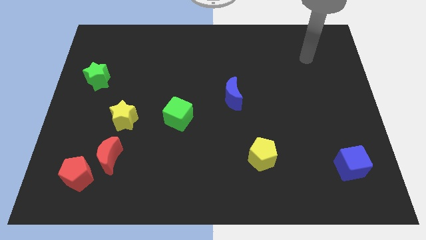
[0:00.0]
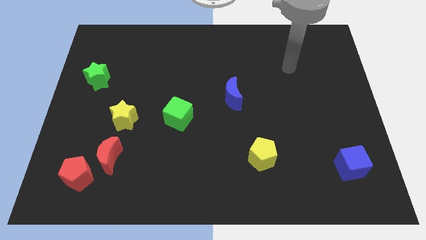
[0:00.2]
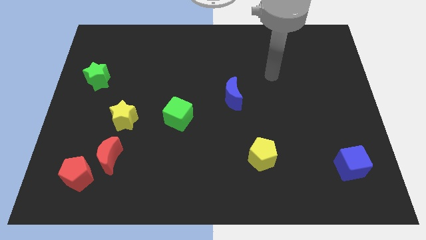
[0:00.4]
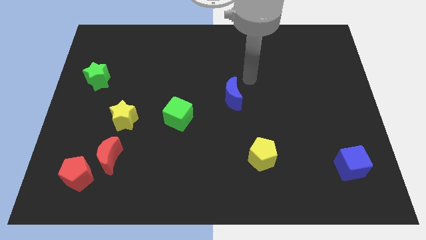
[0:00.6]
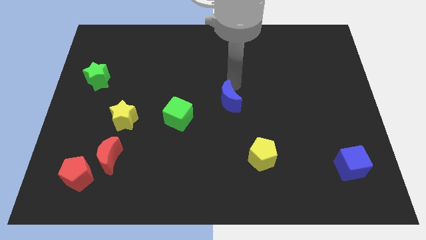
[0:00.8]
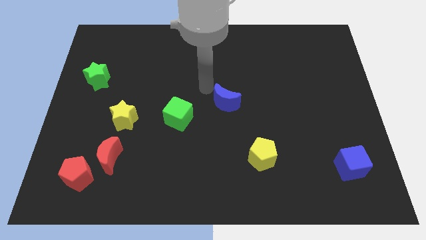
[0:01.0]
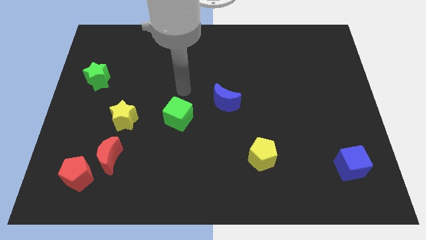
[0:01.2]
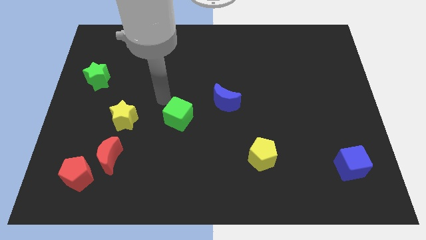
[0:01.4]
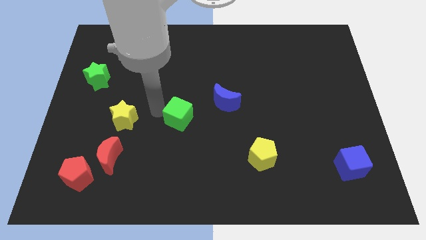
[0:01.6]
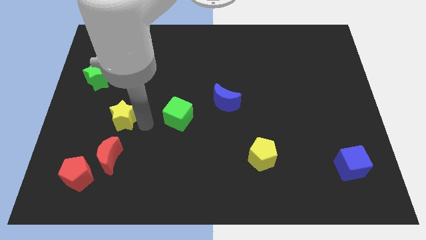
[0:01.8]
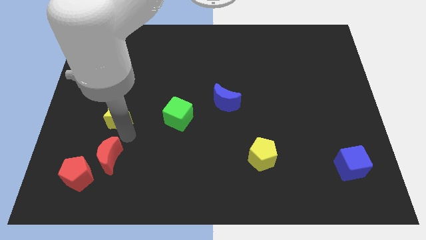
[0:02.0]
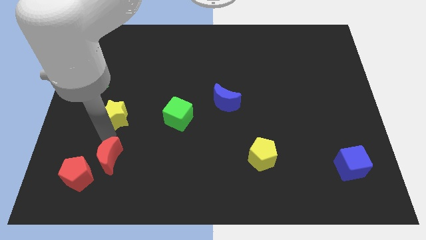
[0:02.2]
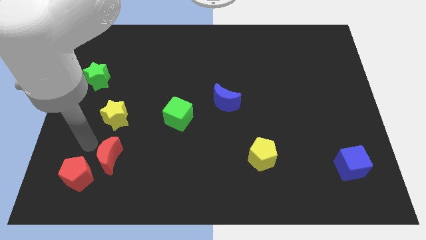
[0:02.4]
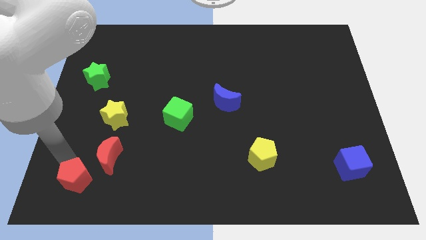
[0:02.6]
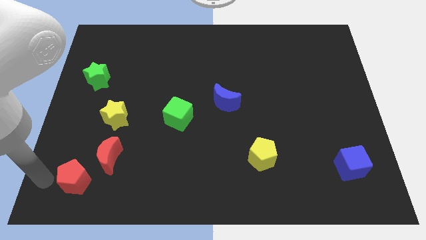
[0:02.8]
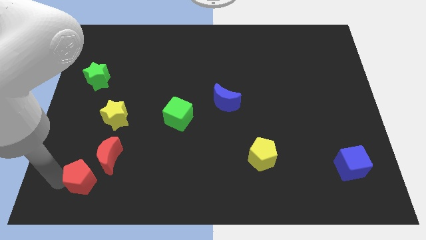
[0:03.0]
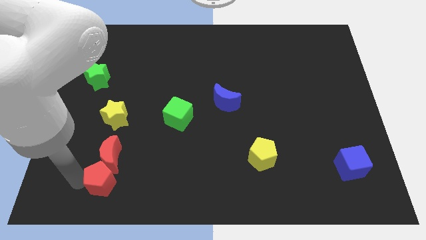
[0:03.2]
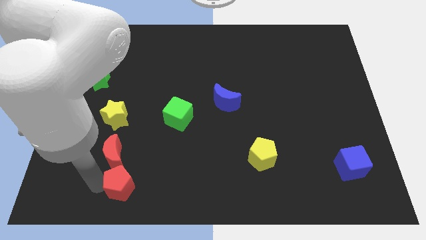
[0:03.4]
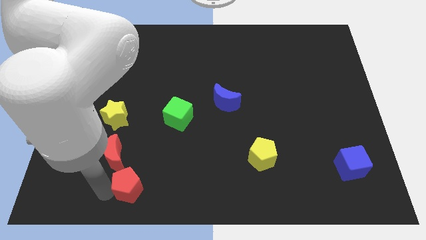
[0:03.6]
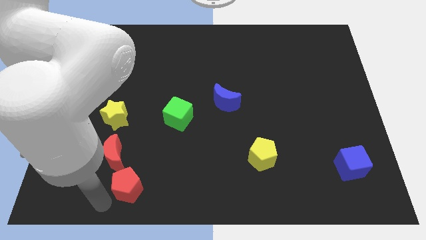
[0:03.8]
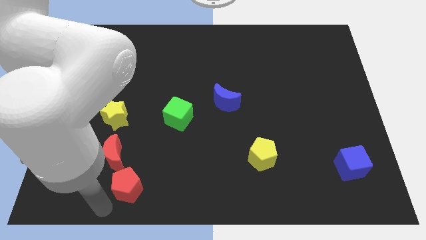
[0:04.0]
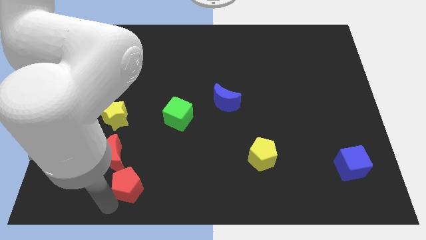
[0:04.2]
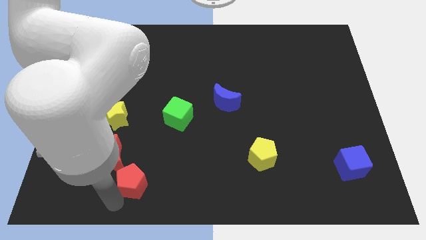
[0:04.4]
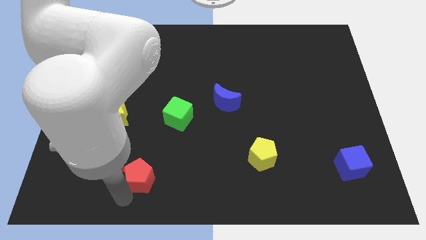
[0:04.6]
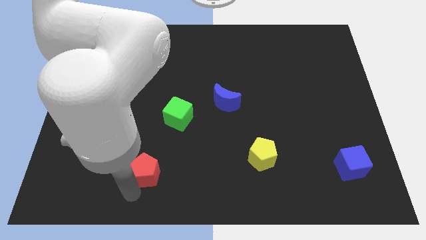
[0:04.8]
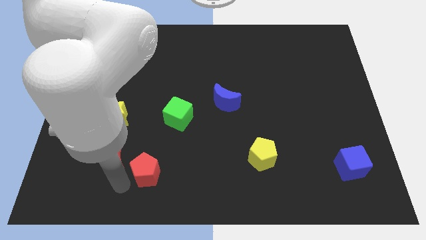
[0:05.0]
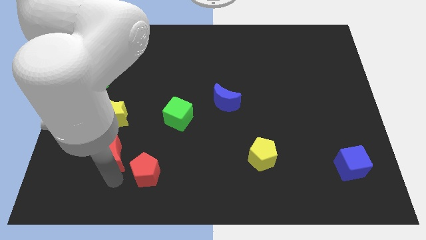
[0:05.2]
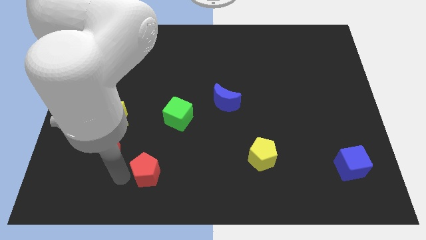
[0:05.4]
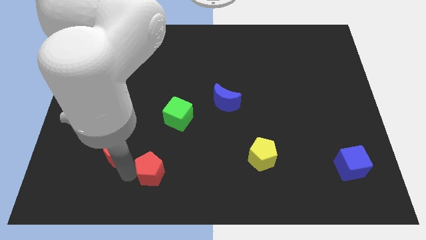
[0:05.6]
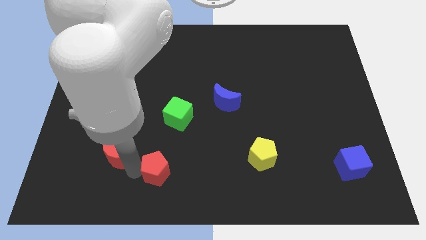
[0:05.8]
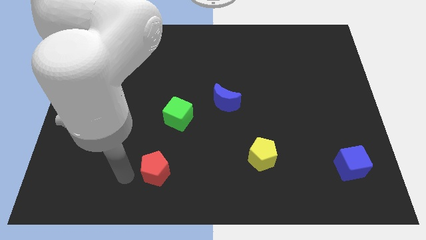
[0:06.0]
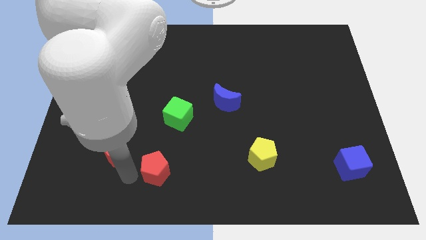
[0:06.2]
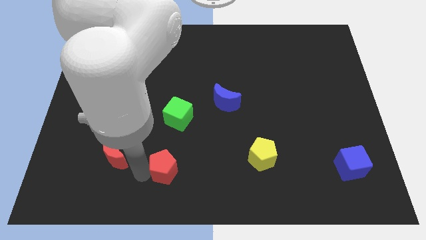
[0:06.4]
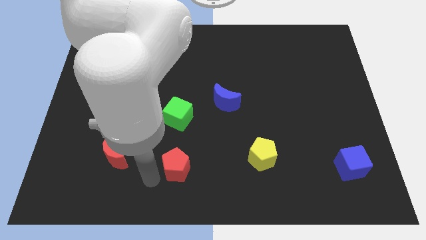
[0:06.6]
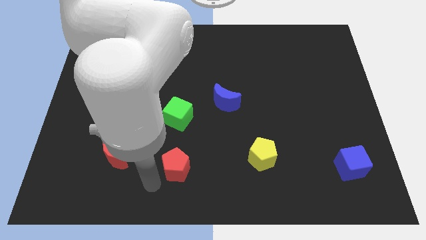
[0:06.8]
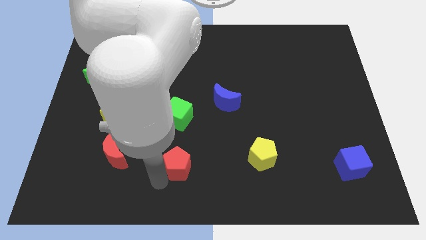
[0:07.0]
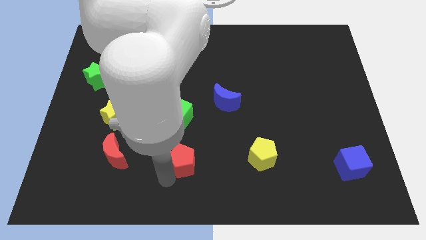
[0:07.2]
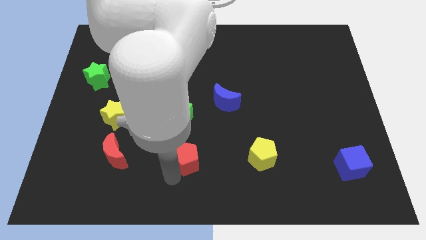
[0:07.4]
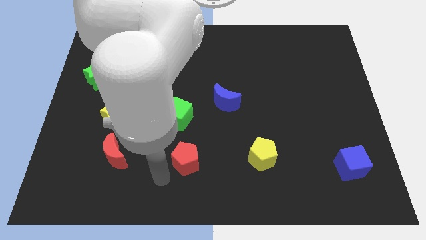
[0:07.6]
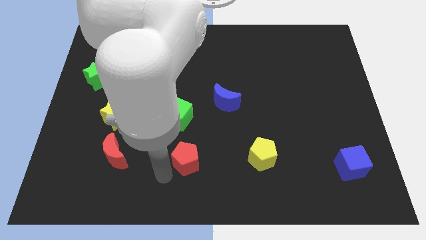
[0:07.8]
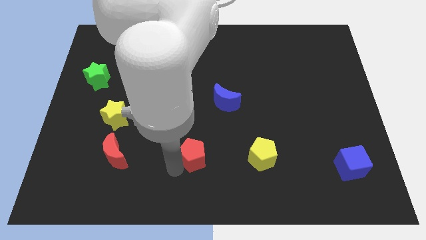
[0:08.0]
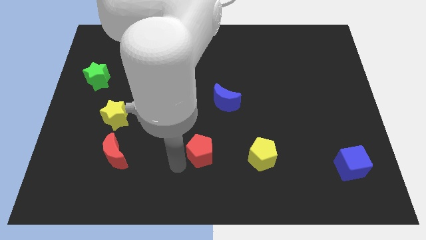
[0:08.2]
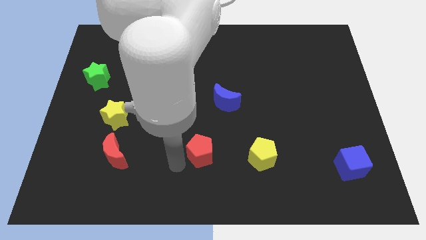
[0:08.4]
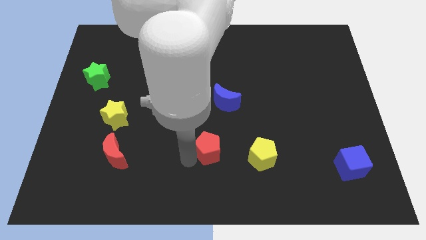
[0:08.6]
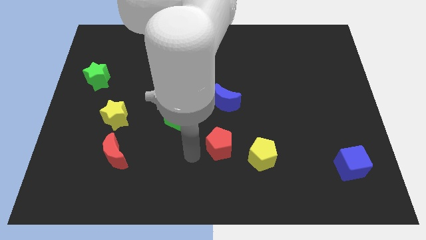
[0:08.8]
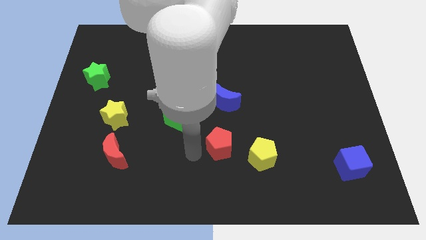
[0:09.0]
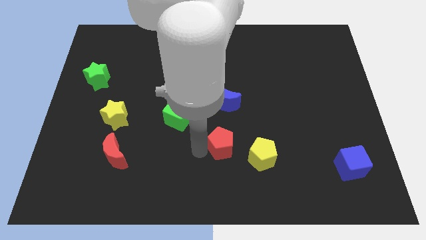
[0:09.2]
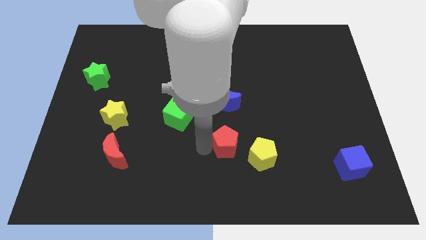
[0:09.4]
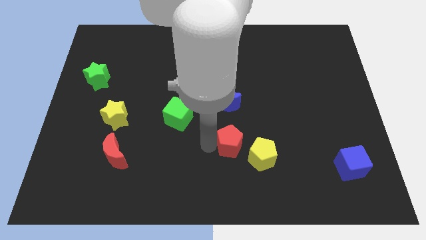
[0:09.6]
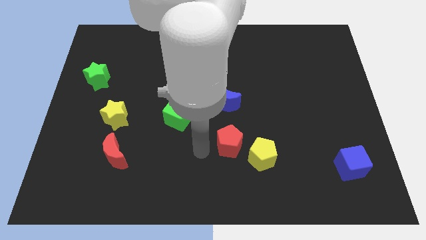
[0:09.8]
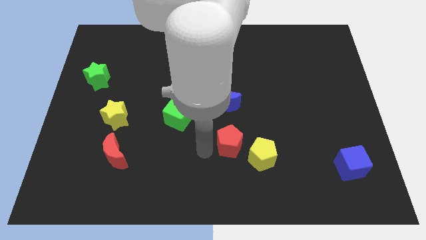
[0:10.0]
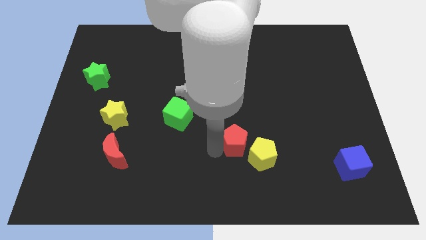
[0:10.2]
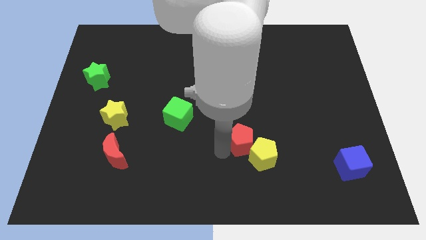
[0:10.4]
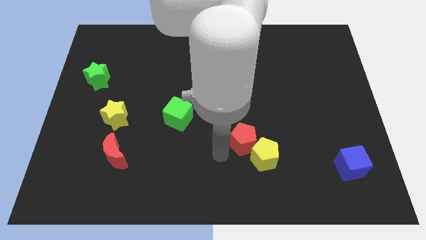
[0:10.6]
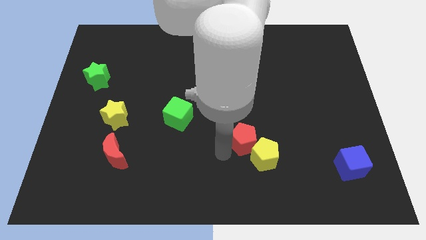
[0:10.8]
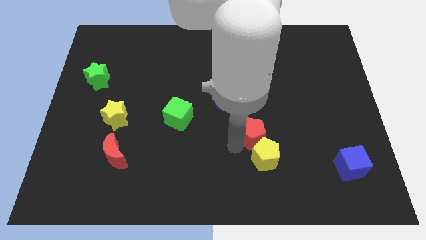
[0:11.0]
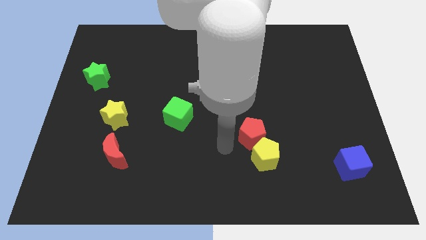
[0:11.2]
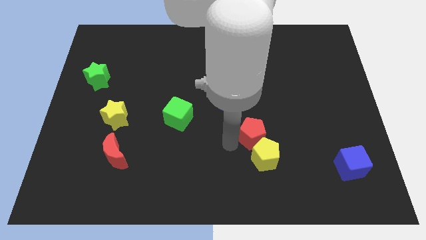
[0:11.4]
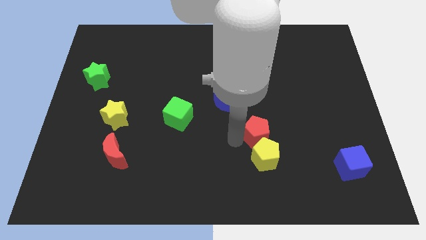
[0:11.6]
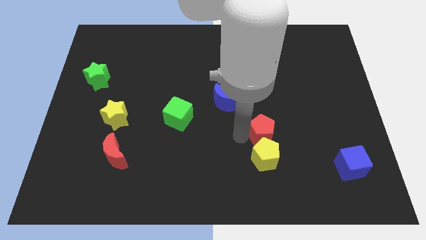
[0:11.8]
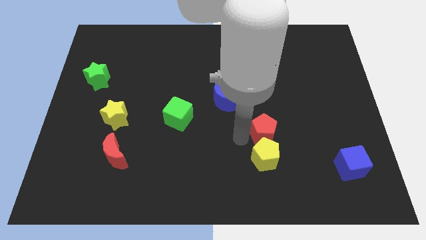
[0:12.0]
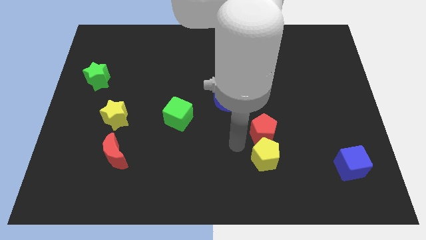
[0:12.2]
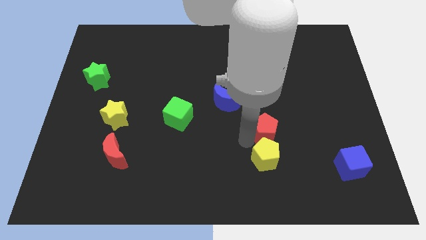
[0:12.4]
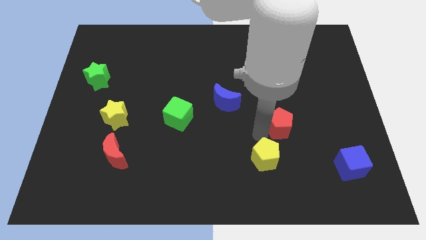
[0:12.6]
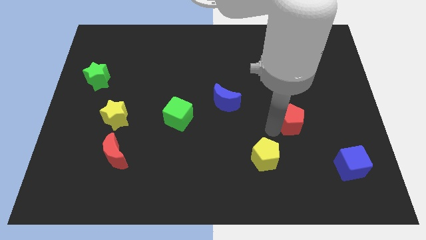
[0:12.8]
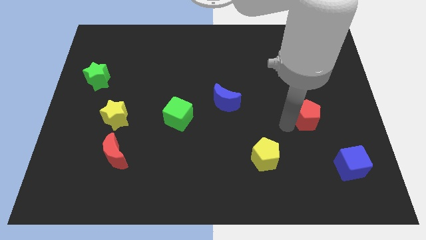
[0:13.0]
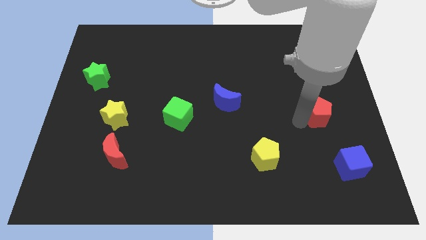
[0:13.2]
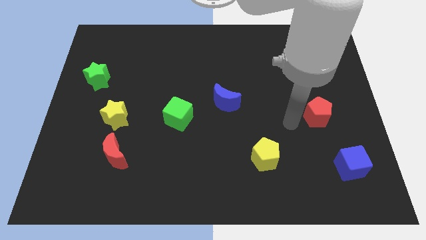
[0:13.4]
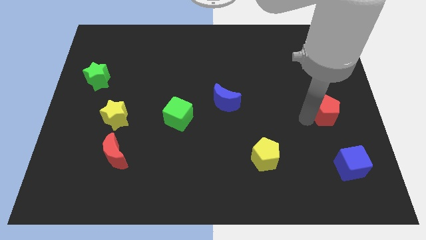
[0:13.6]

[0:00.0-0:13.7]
put the red pentagon to the right side of the board

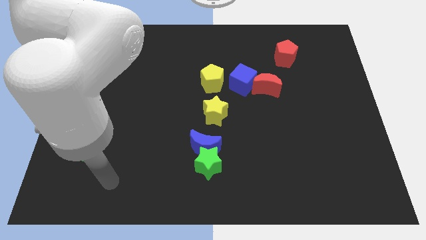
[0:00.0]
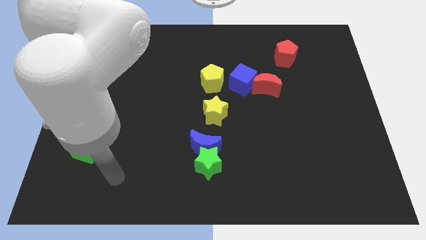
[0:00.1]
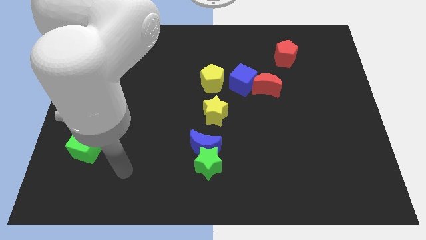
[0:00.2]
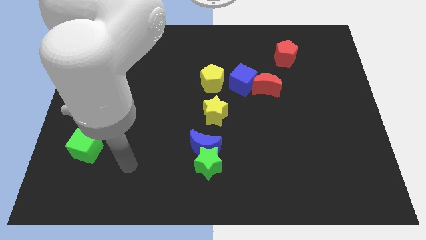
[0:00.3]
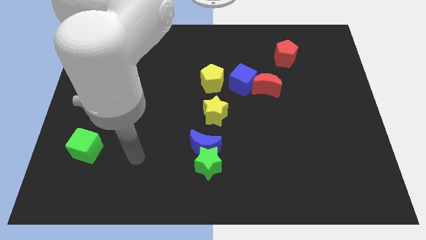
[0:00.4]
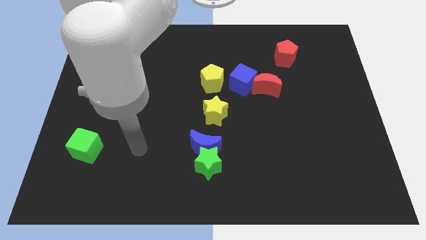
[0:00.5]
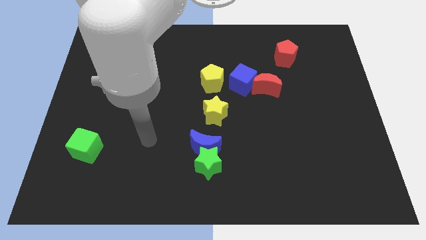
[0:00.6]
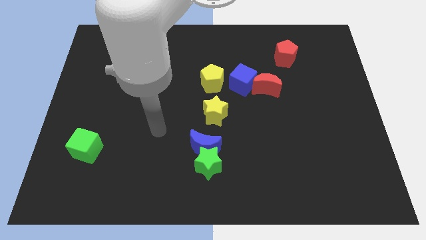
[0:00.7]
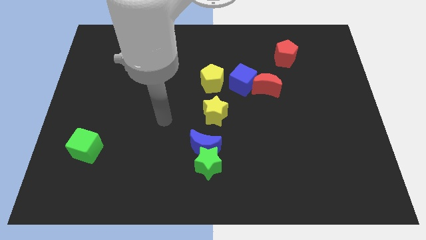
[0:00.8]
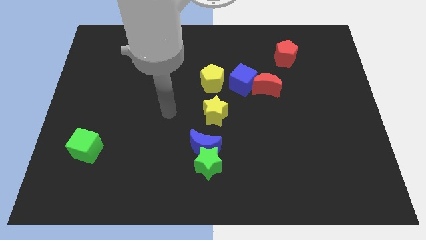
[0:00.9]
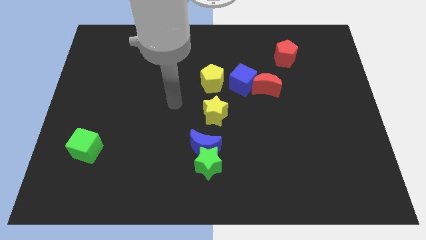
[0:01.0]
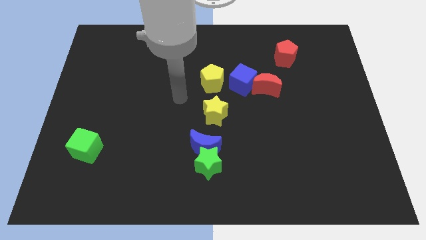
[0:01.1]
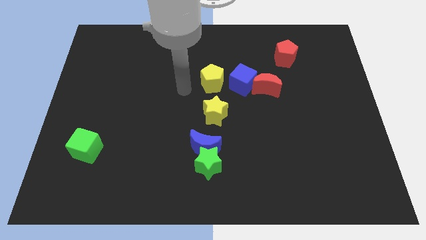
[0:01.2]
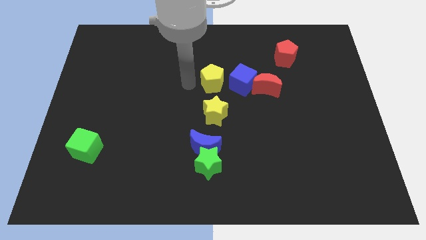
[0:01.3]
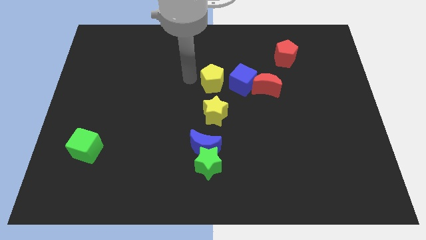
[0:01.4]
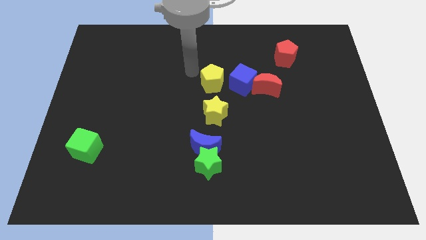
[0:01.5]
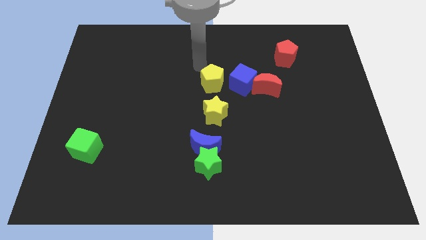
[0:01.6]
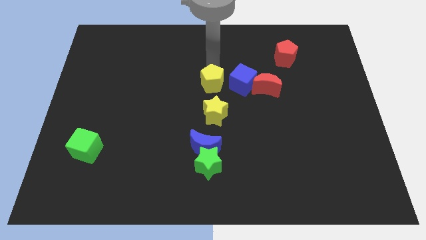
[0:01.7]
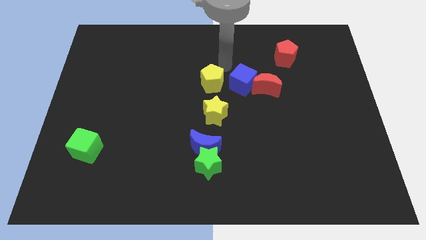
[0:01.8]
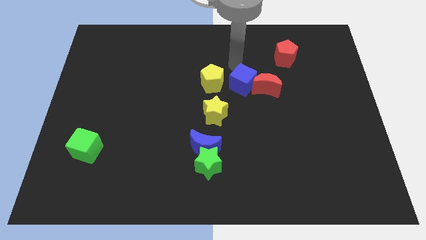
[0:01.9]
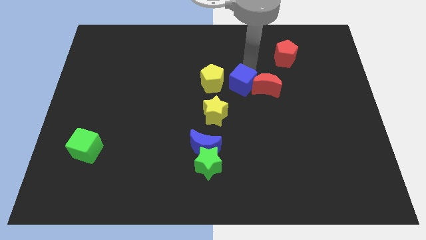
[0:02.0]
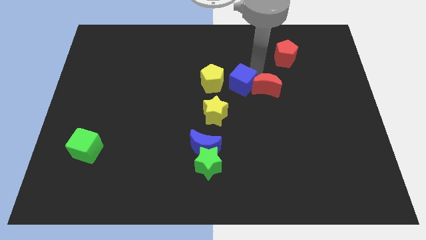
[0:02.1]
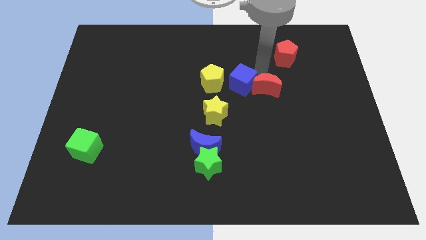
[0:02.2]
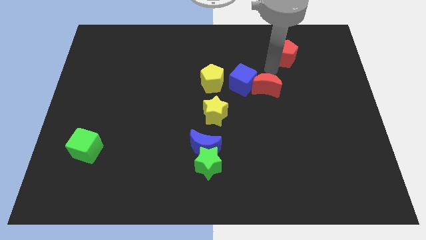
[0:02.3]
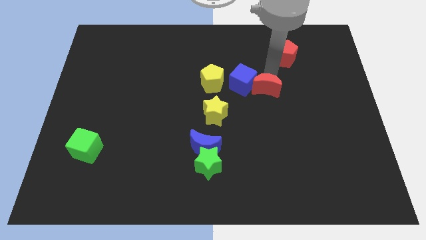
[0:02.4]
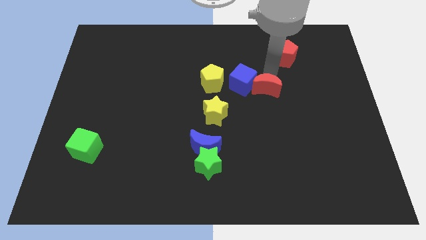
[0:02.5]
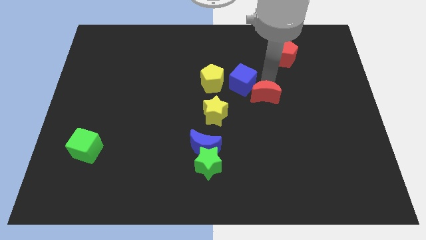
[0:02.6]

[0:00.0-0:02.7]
push the red moon to the center
